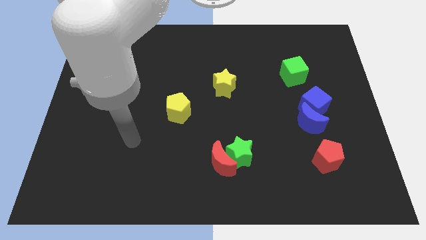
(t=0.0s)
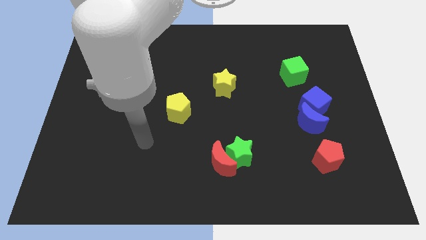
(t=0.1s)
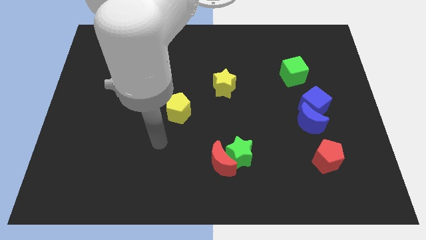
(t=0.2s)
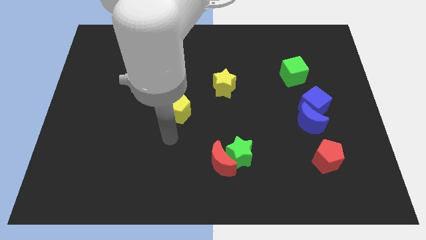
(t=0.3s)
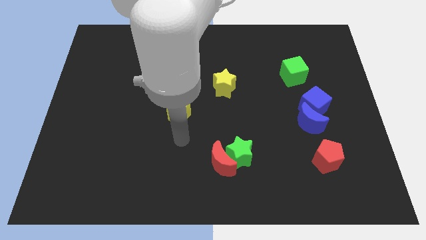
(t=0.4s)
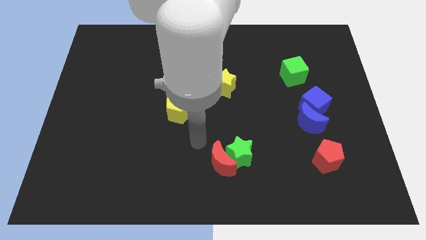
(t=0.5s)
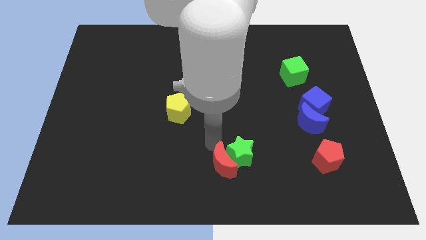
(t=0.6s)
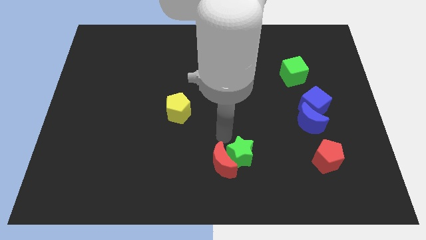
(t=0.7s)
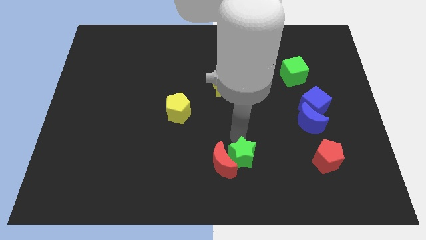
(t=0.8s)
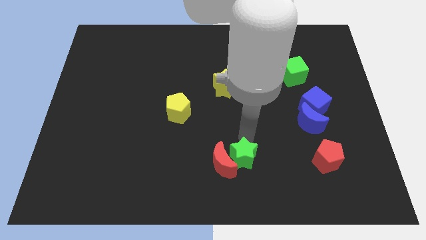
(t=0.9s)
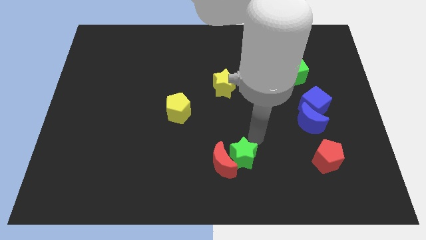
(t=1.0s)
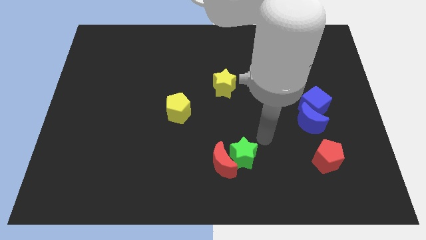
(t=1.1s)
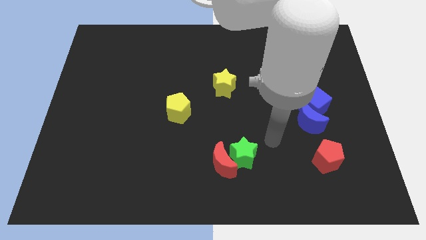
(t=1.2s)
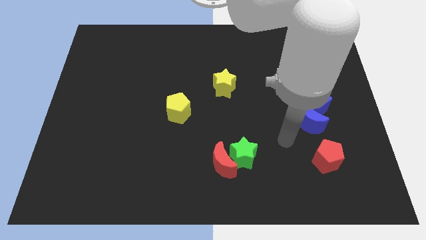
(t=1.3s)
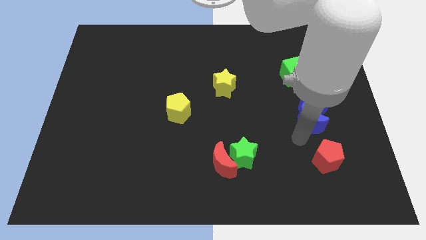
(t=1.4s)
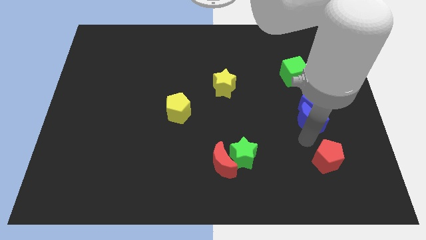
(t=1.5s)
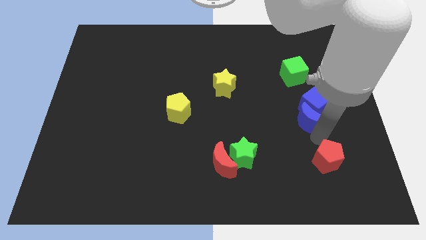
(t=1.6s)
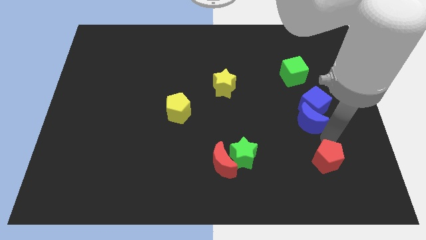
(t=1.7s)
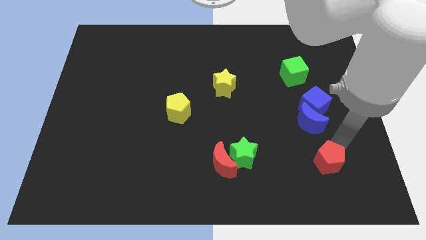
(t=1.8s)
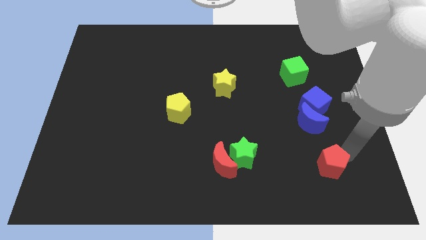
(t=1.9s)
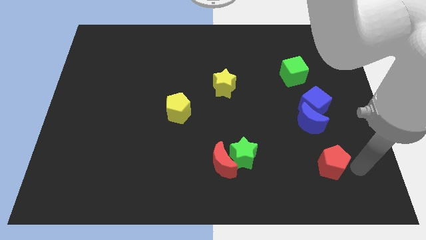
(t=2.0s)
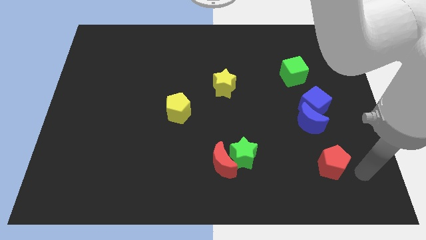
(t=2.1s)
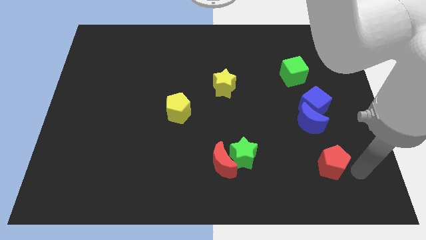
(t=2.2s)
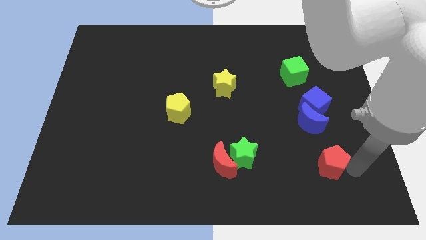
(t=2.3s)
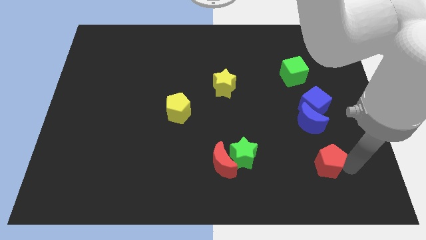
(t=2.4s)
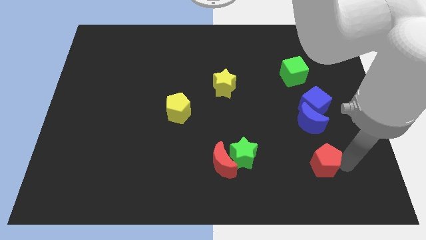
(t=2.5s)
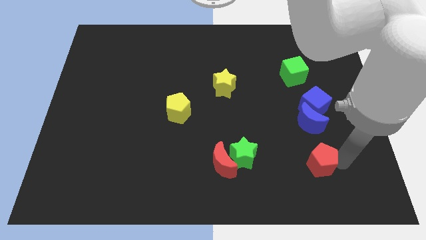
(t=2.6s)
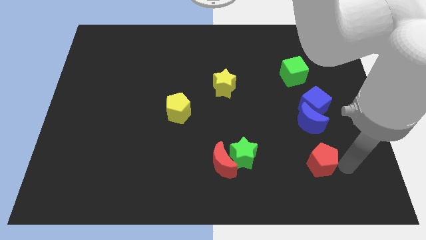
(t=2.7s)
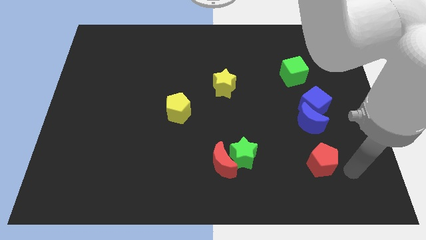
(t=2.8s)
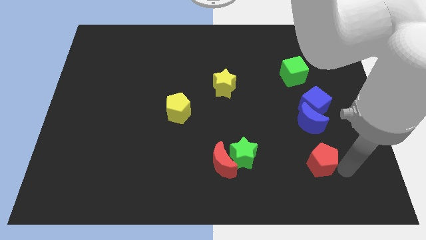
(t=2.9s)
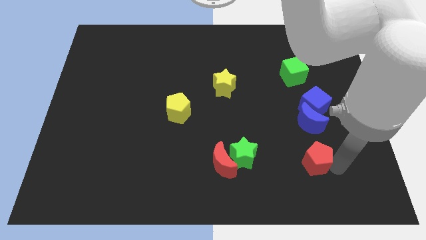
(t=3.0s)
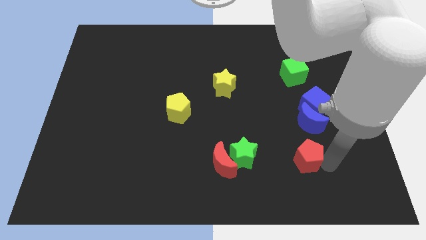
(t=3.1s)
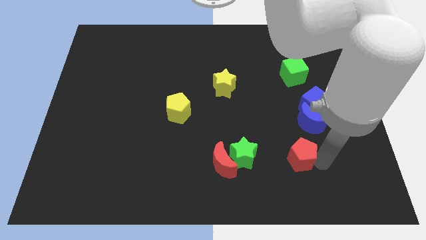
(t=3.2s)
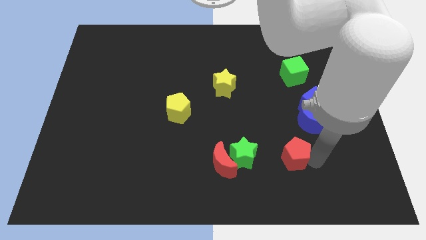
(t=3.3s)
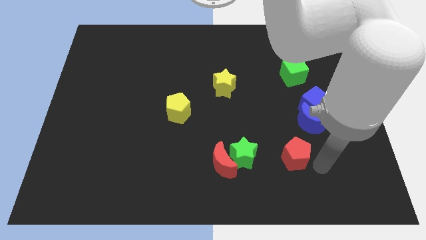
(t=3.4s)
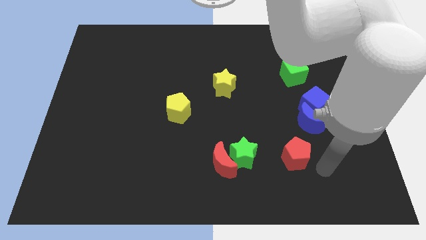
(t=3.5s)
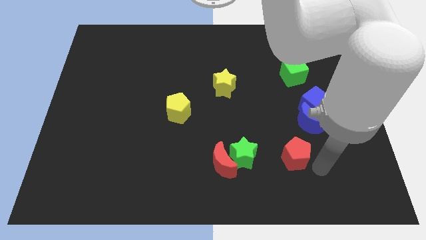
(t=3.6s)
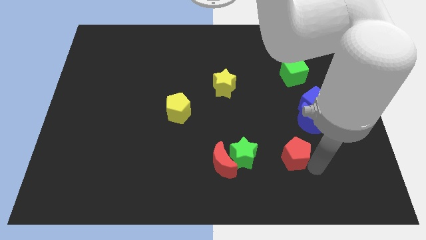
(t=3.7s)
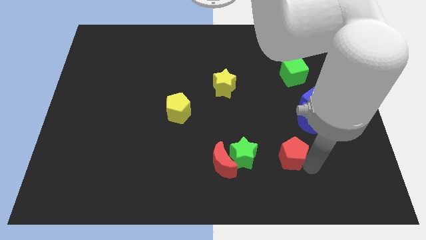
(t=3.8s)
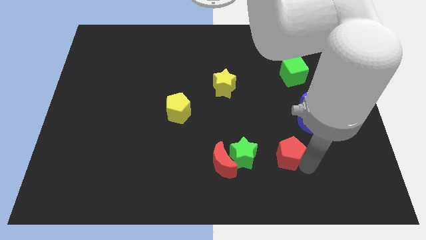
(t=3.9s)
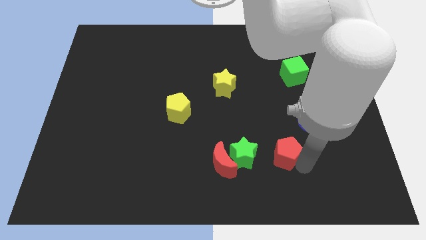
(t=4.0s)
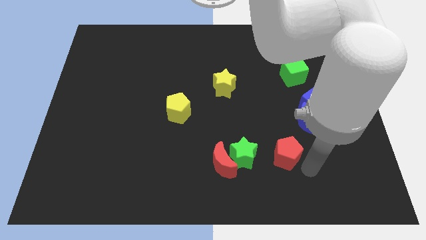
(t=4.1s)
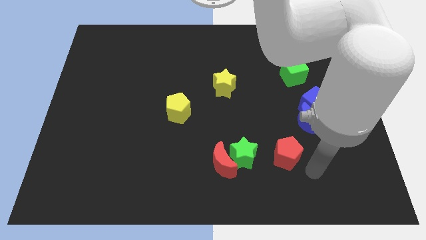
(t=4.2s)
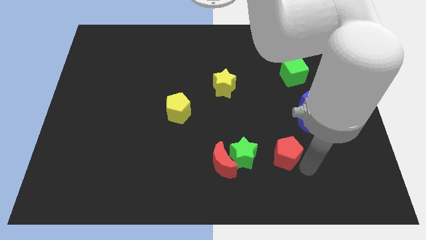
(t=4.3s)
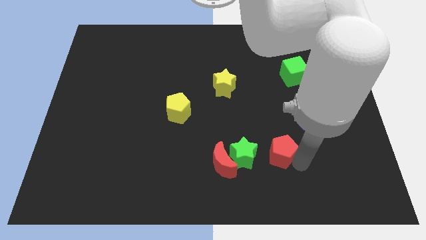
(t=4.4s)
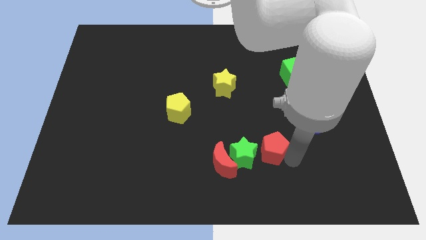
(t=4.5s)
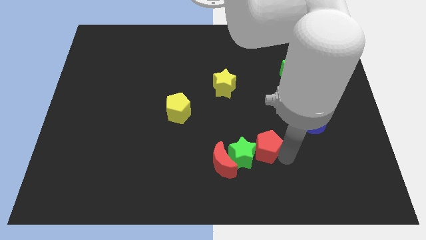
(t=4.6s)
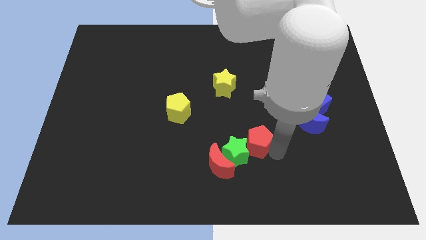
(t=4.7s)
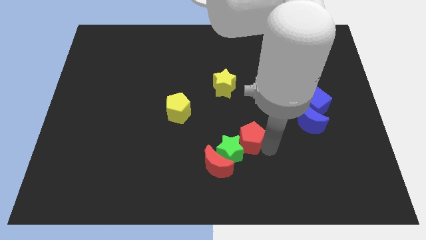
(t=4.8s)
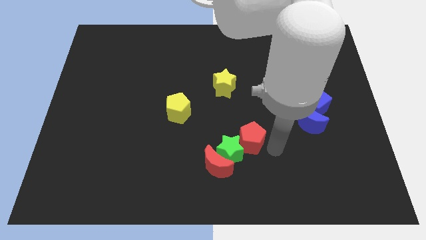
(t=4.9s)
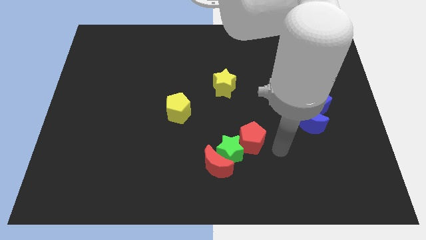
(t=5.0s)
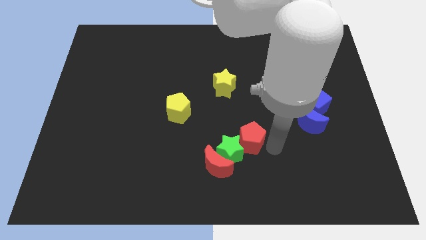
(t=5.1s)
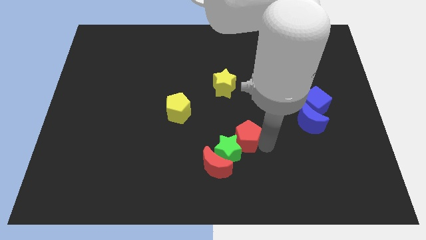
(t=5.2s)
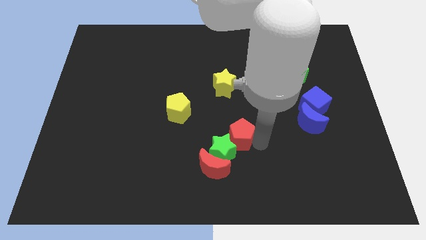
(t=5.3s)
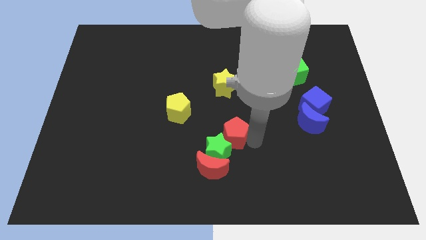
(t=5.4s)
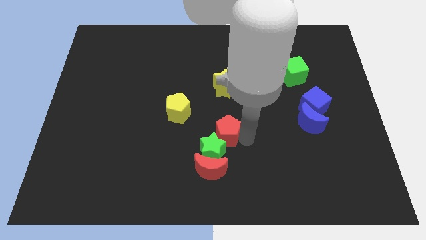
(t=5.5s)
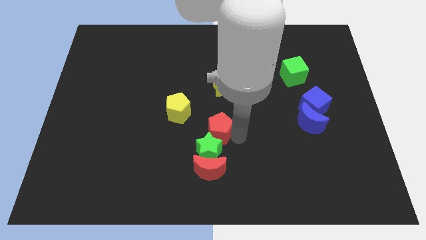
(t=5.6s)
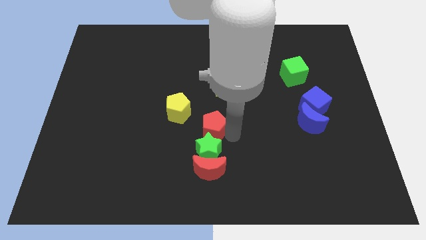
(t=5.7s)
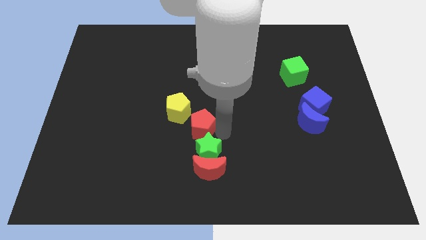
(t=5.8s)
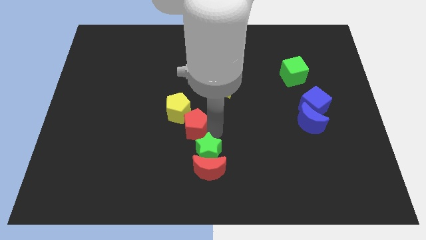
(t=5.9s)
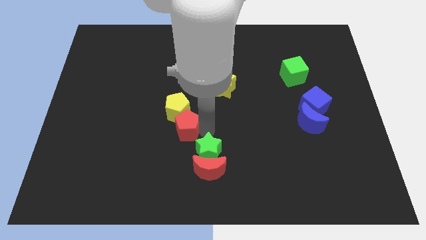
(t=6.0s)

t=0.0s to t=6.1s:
move the red pentagon next to the yellow pentagon

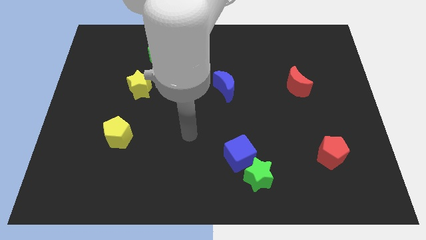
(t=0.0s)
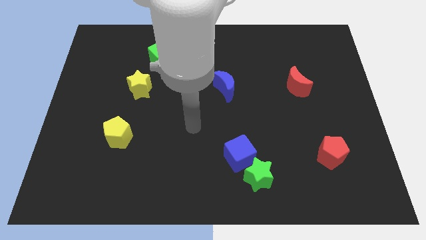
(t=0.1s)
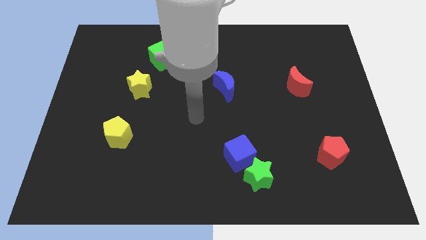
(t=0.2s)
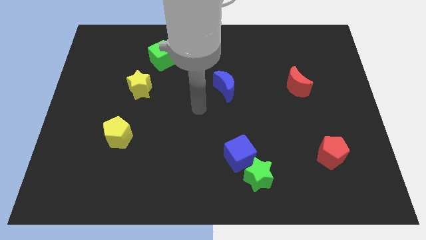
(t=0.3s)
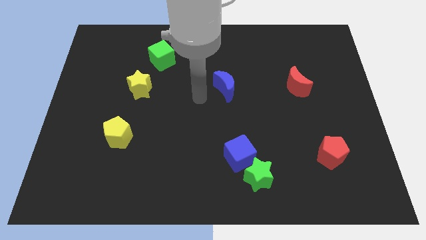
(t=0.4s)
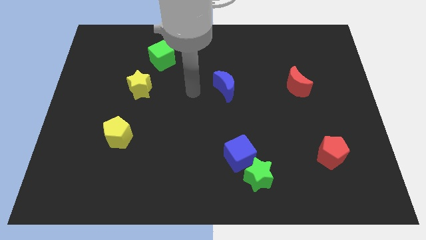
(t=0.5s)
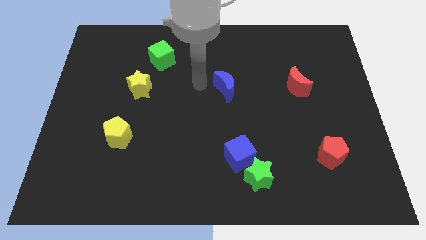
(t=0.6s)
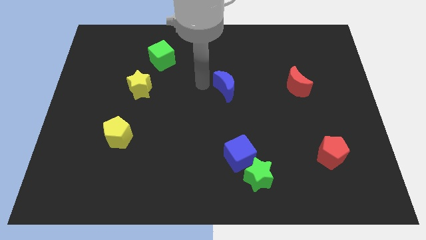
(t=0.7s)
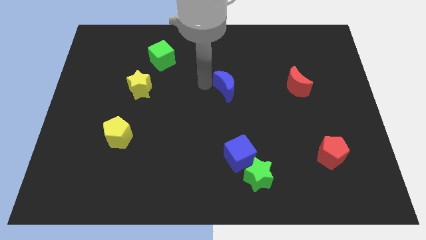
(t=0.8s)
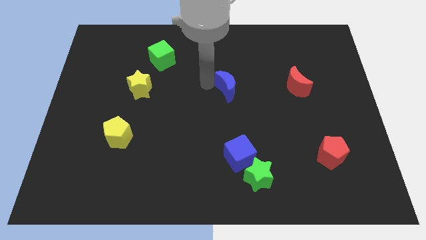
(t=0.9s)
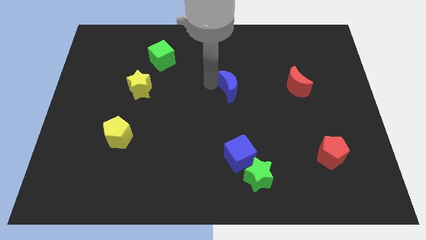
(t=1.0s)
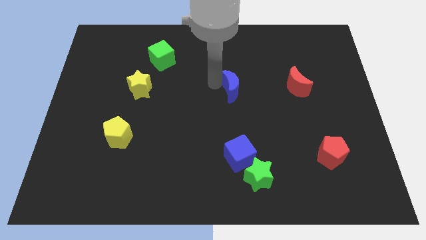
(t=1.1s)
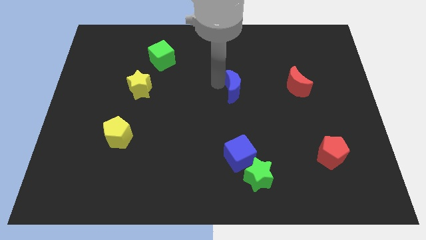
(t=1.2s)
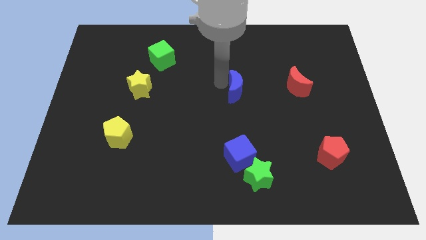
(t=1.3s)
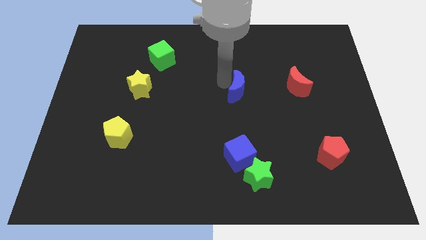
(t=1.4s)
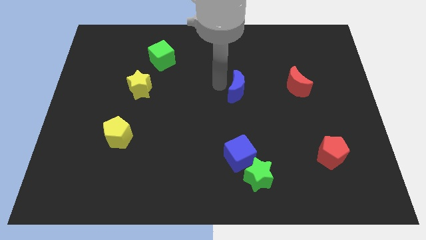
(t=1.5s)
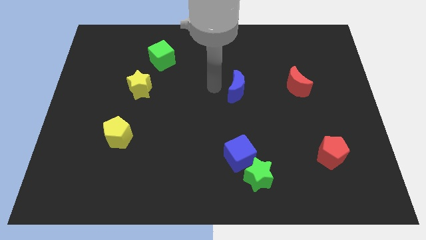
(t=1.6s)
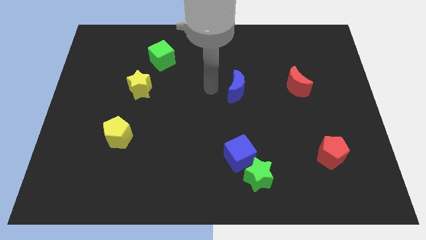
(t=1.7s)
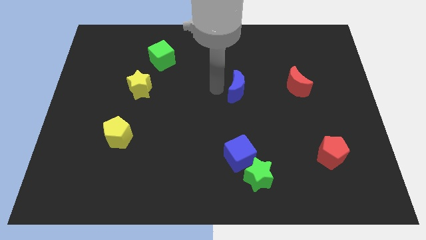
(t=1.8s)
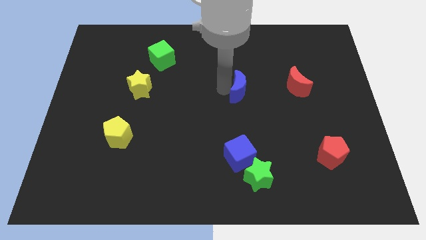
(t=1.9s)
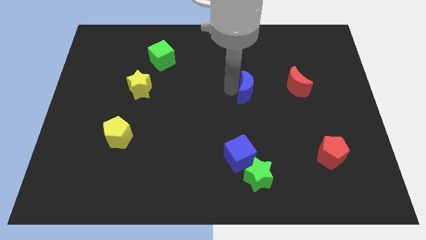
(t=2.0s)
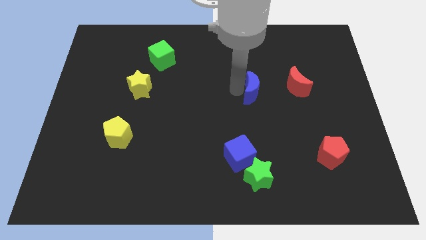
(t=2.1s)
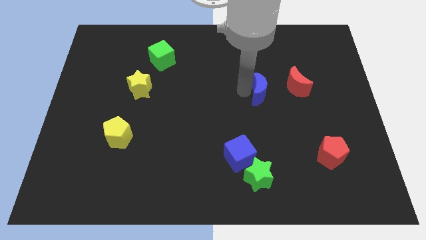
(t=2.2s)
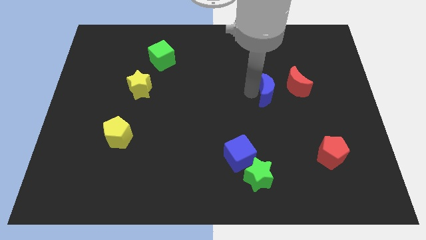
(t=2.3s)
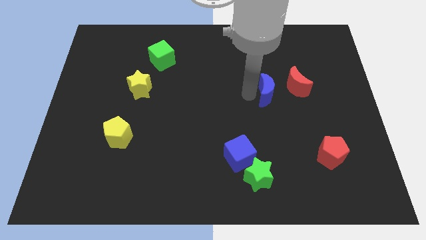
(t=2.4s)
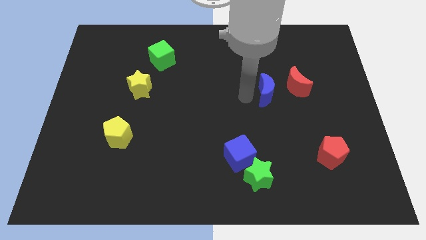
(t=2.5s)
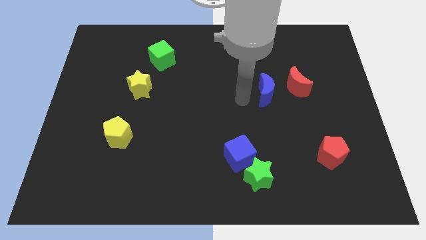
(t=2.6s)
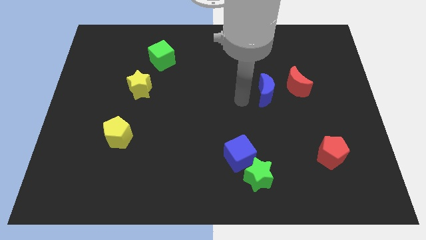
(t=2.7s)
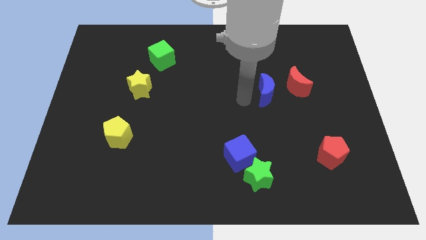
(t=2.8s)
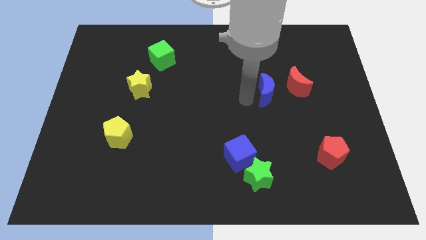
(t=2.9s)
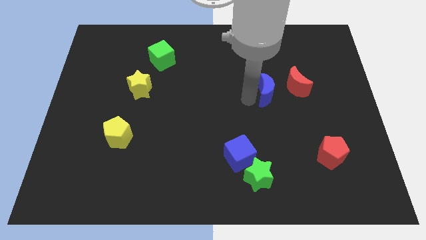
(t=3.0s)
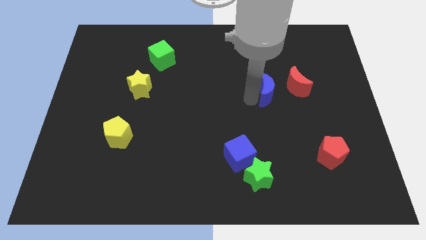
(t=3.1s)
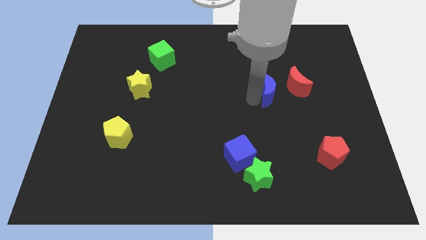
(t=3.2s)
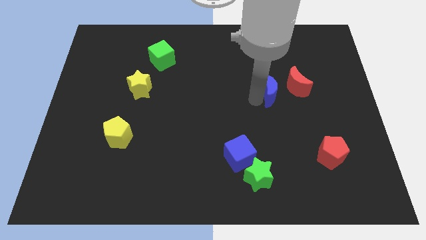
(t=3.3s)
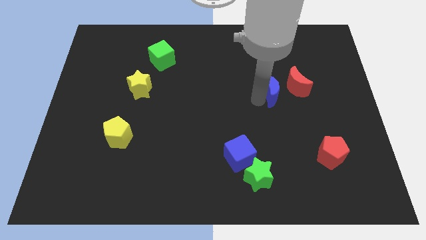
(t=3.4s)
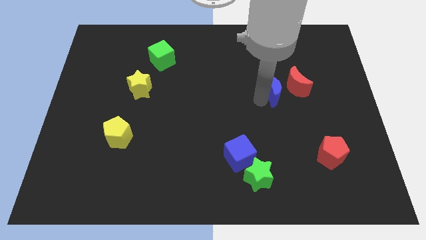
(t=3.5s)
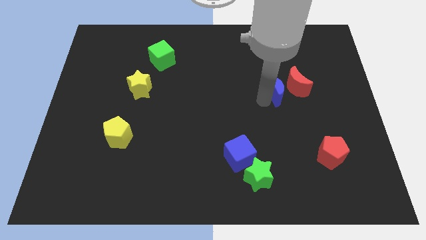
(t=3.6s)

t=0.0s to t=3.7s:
slide the blue moon next to the red moon
